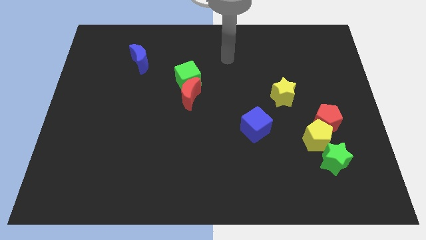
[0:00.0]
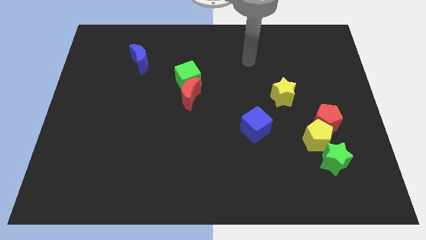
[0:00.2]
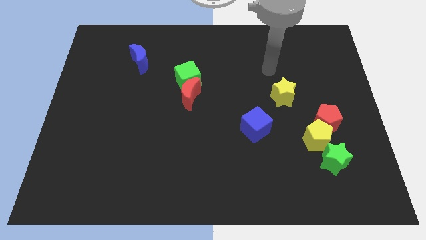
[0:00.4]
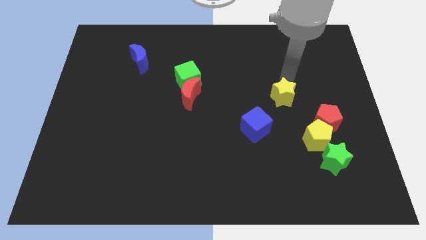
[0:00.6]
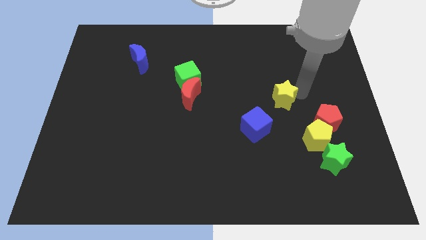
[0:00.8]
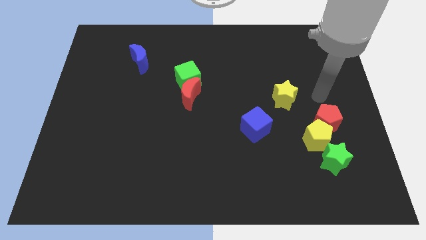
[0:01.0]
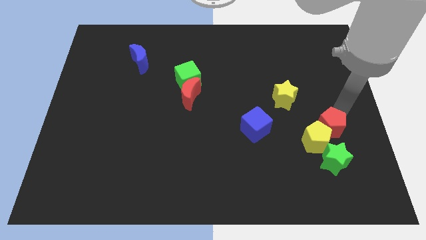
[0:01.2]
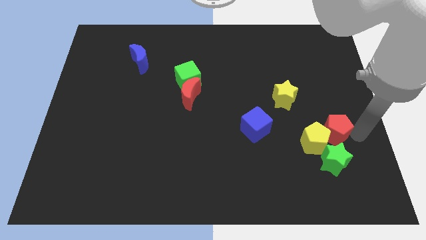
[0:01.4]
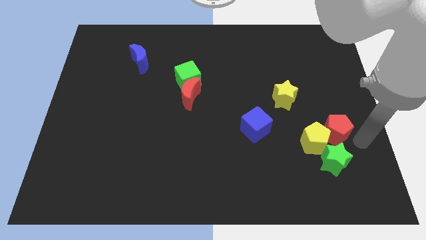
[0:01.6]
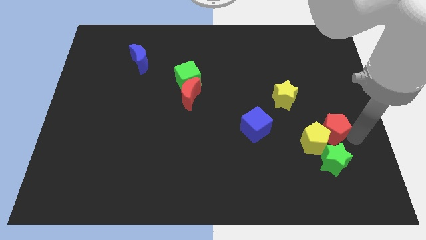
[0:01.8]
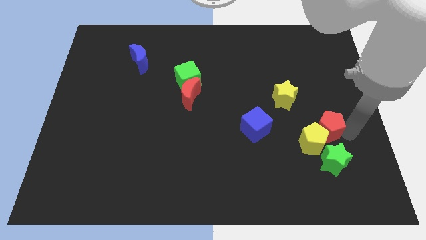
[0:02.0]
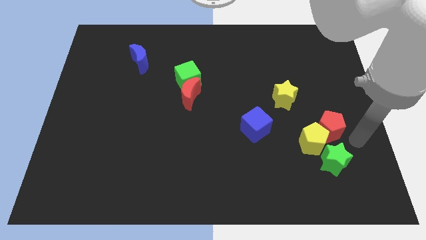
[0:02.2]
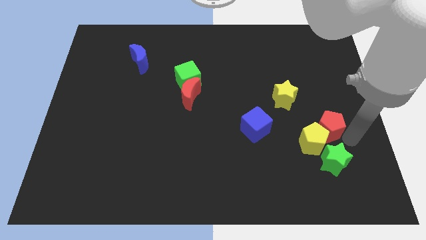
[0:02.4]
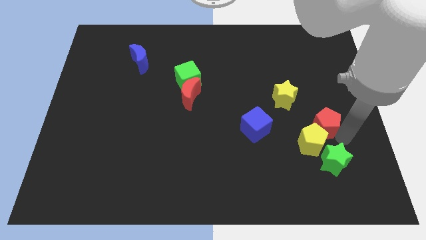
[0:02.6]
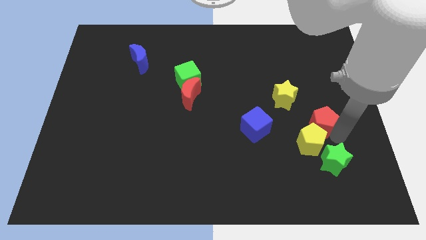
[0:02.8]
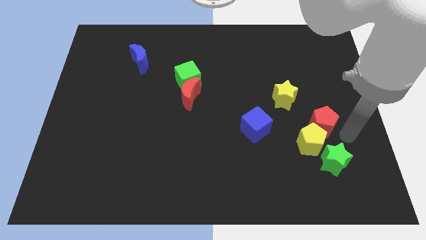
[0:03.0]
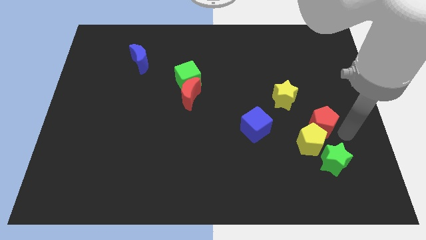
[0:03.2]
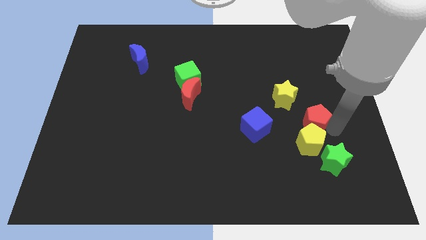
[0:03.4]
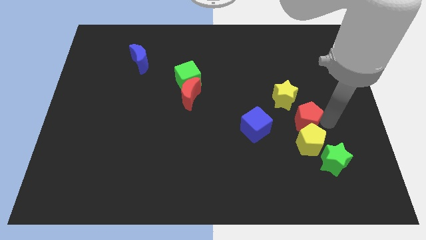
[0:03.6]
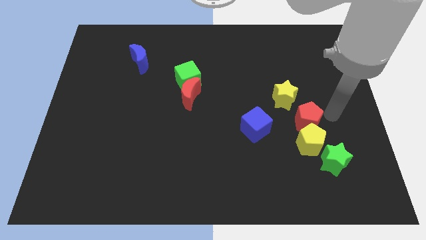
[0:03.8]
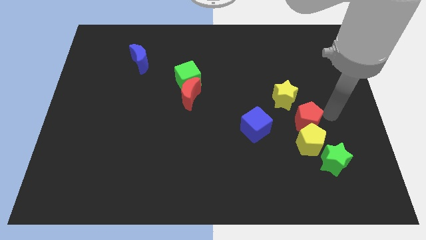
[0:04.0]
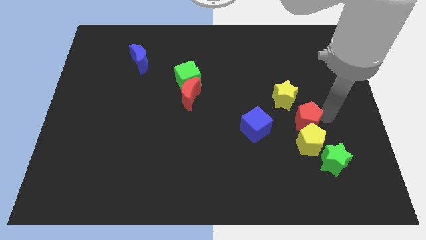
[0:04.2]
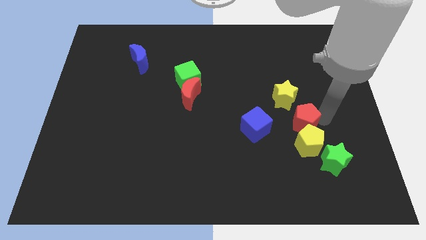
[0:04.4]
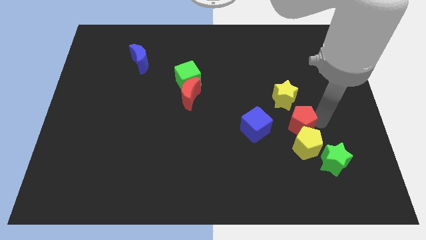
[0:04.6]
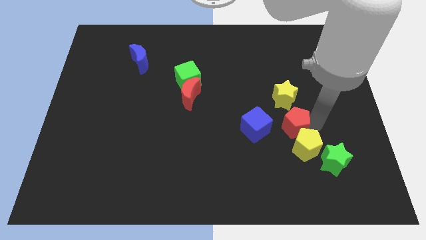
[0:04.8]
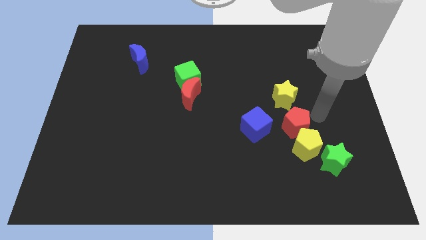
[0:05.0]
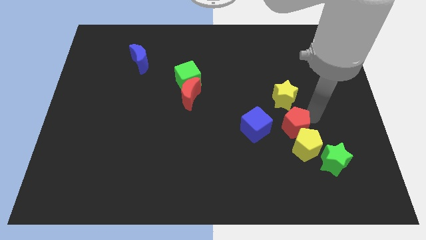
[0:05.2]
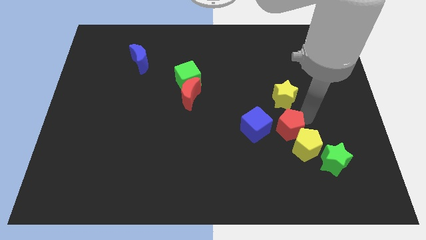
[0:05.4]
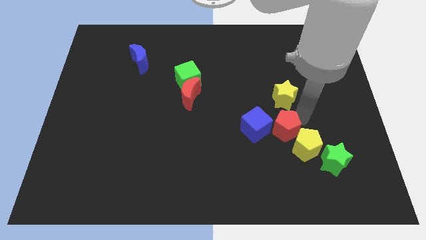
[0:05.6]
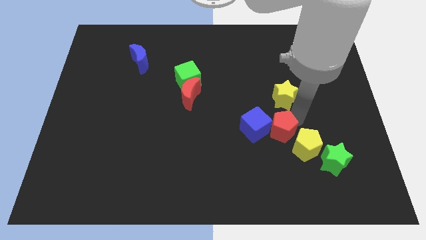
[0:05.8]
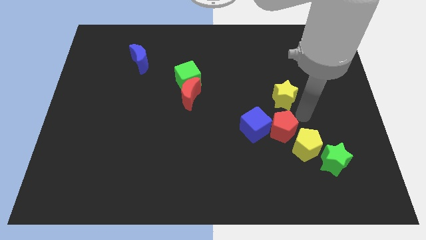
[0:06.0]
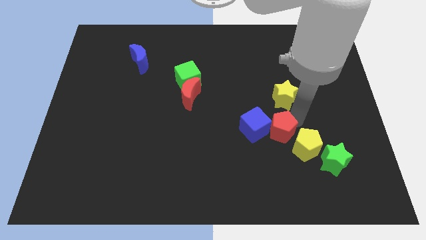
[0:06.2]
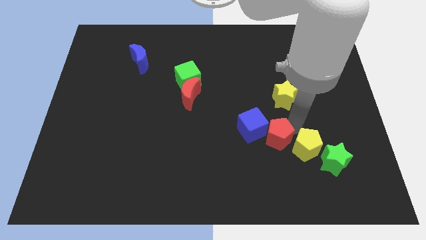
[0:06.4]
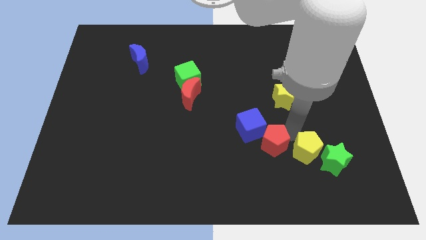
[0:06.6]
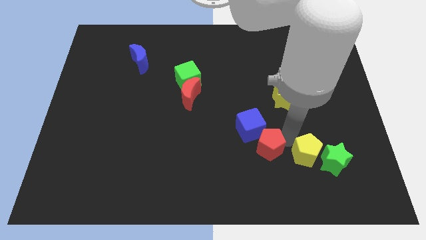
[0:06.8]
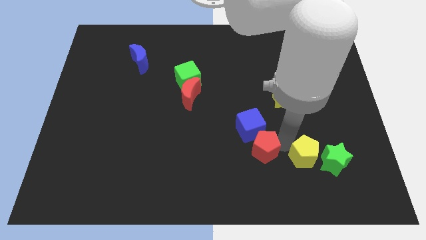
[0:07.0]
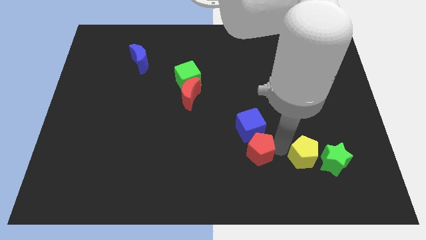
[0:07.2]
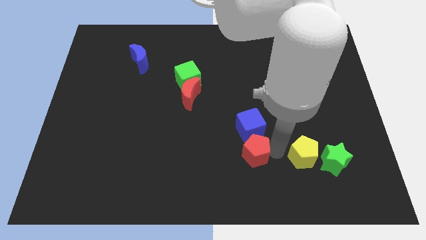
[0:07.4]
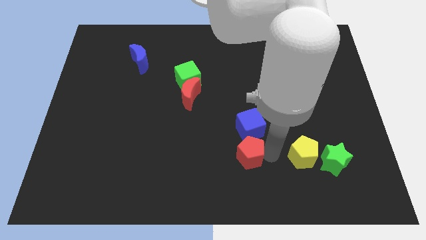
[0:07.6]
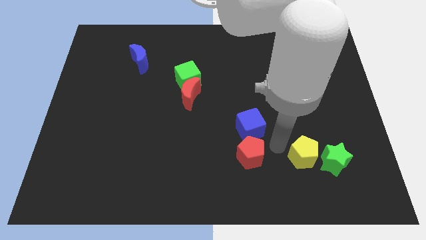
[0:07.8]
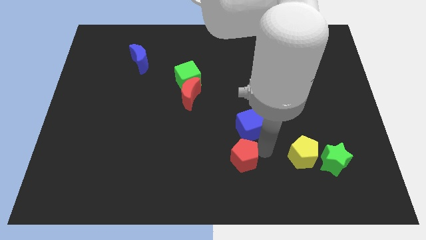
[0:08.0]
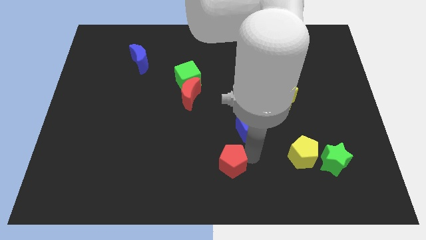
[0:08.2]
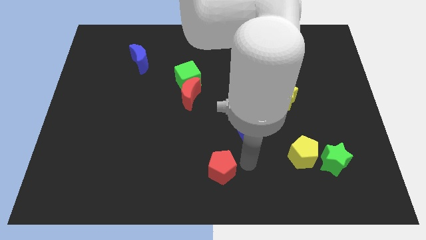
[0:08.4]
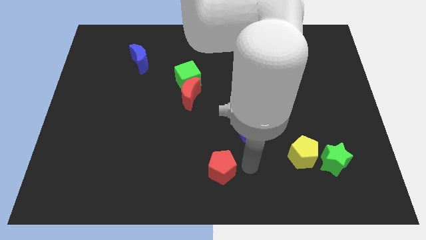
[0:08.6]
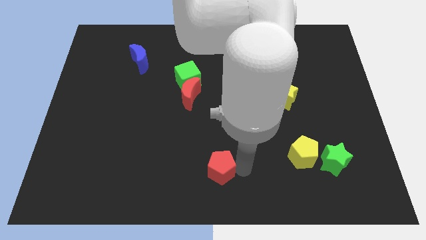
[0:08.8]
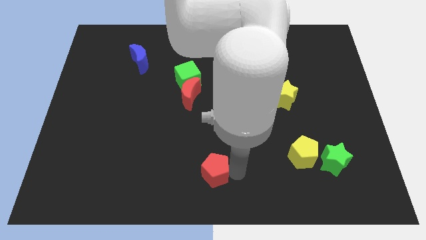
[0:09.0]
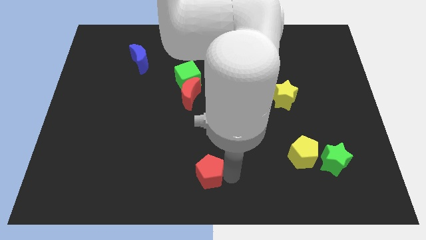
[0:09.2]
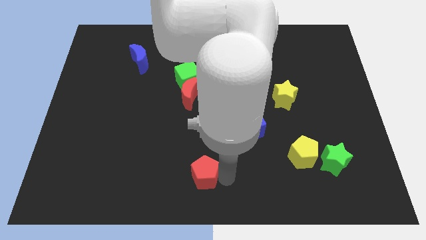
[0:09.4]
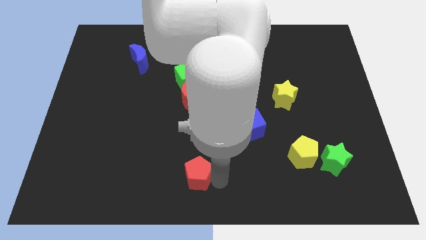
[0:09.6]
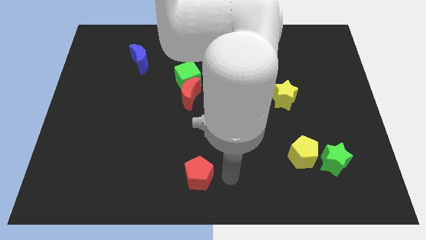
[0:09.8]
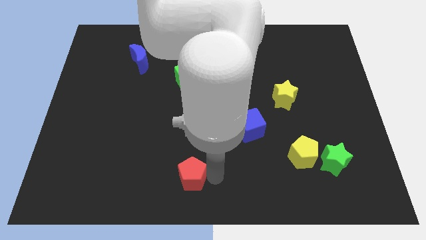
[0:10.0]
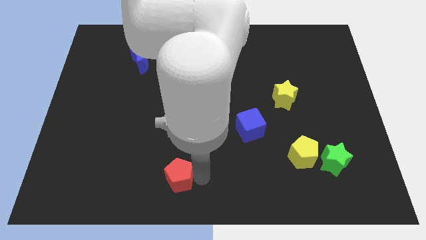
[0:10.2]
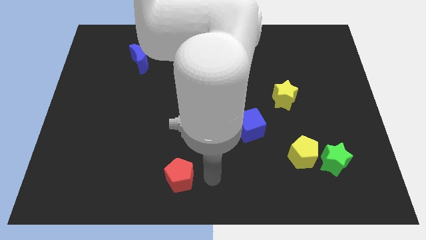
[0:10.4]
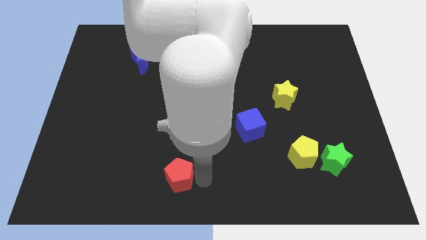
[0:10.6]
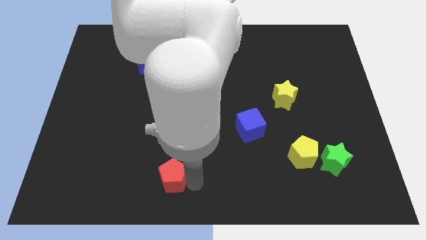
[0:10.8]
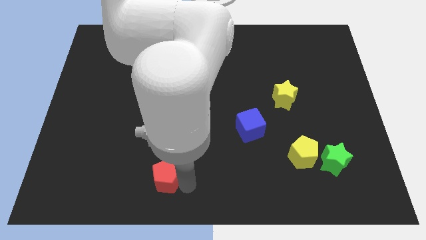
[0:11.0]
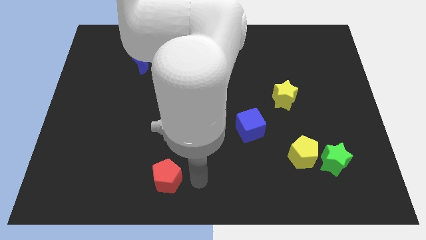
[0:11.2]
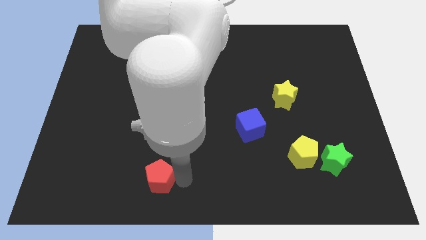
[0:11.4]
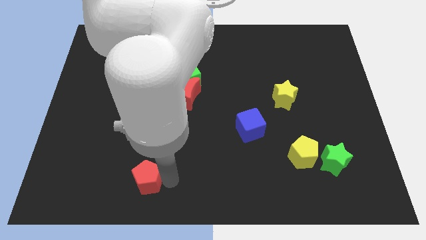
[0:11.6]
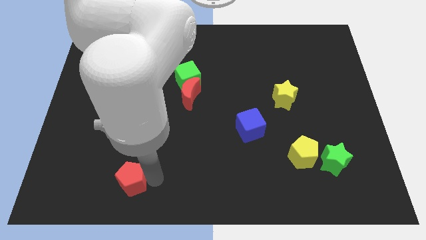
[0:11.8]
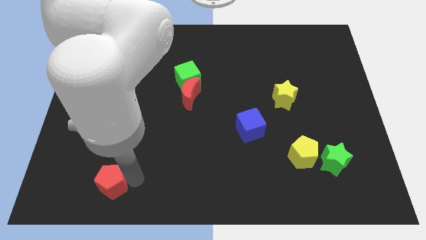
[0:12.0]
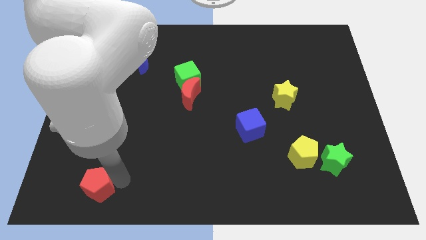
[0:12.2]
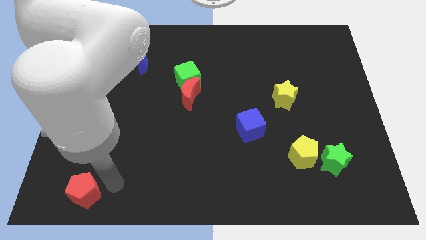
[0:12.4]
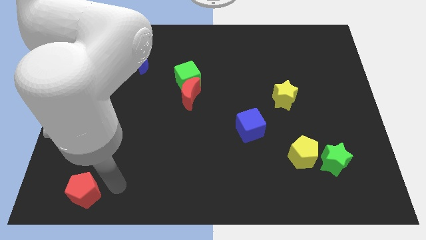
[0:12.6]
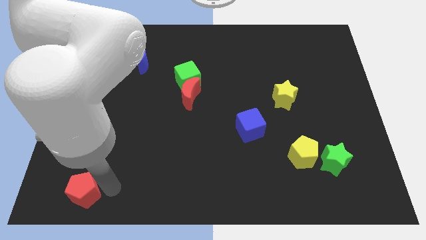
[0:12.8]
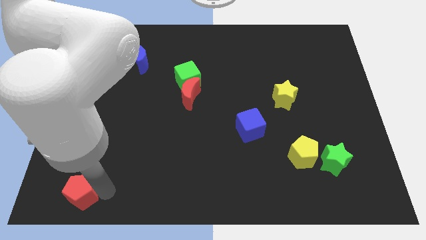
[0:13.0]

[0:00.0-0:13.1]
push the red pentagon to the lower left corner
